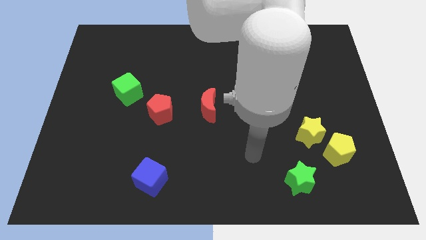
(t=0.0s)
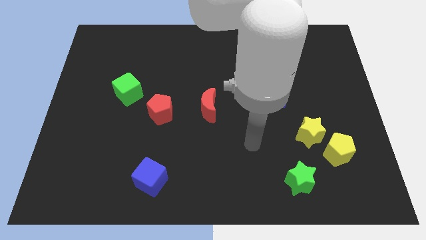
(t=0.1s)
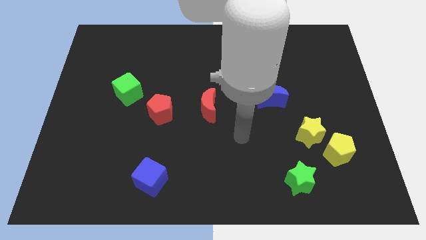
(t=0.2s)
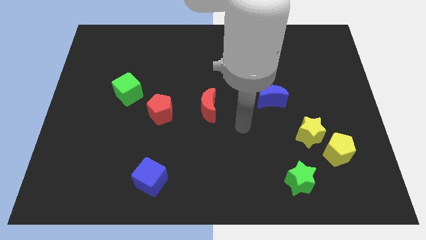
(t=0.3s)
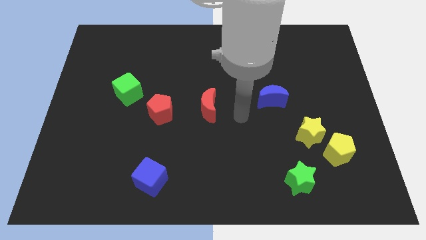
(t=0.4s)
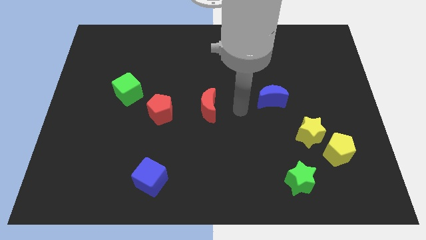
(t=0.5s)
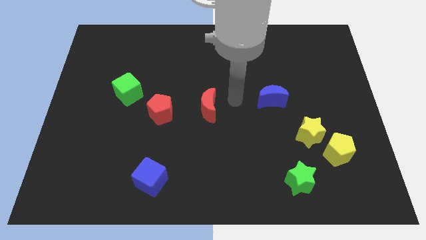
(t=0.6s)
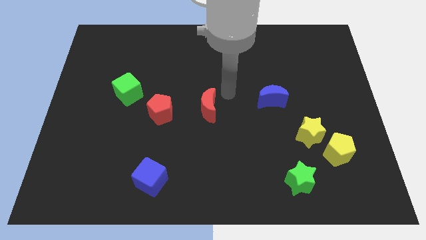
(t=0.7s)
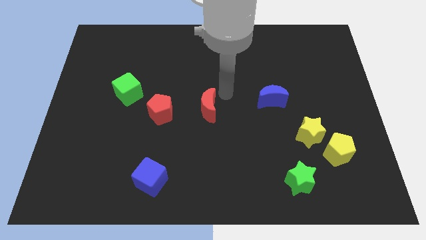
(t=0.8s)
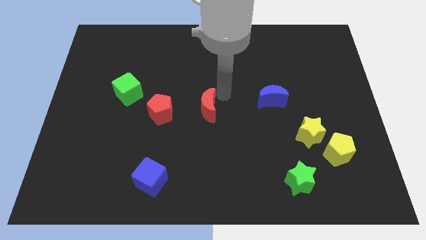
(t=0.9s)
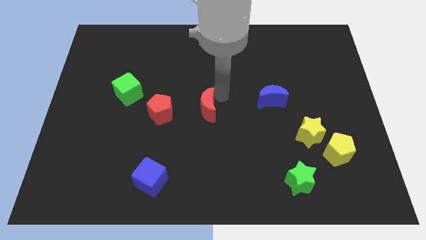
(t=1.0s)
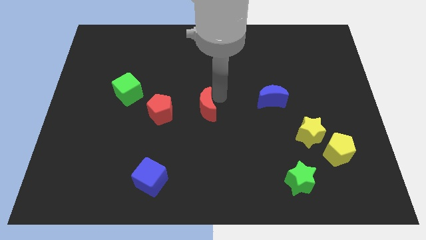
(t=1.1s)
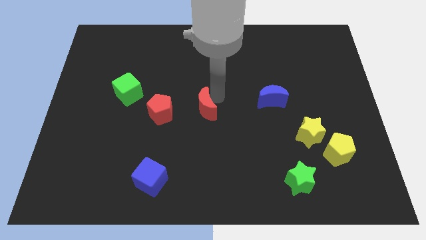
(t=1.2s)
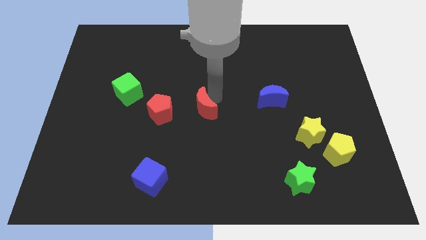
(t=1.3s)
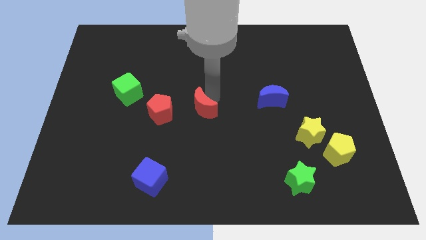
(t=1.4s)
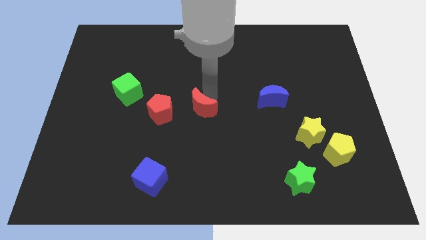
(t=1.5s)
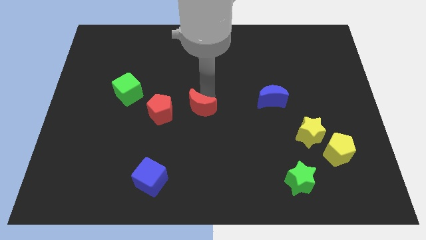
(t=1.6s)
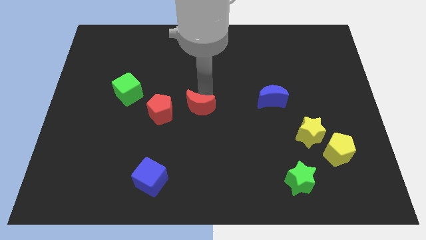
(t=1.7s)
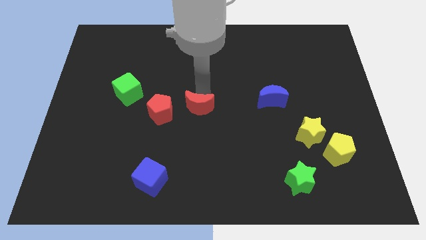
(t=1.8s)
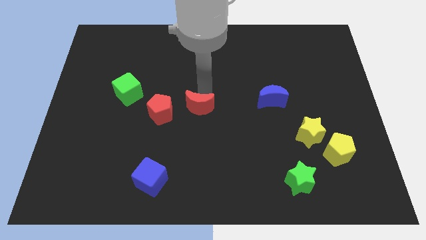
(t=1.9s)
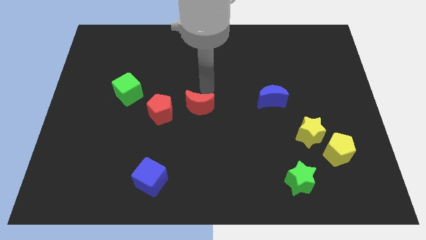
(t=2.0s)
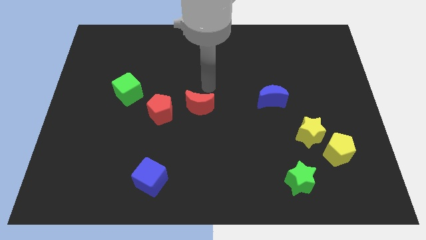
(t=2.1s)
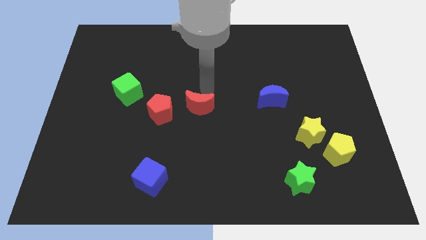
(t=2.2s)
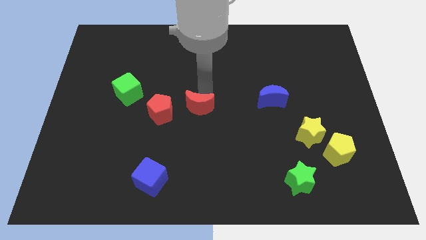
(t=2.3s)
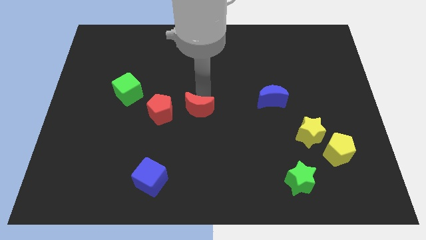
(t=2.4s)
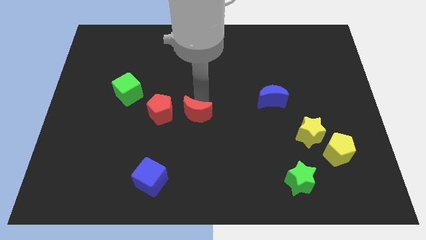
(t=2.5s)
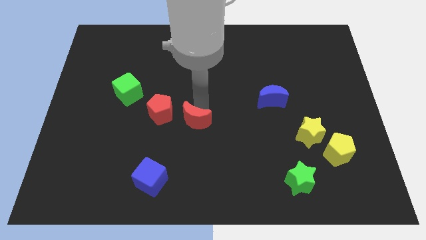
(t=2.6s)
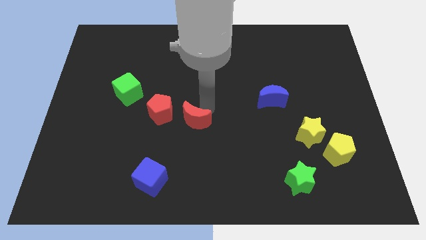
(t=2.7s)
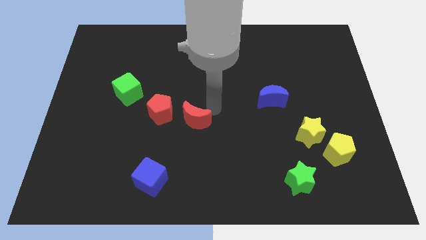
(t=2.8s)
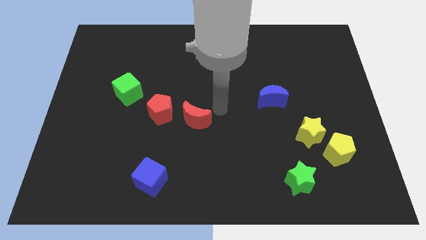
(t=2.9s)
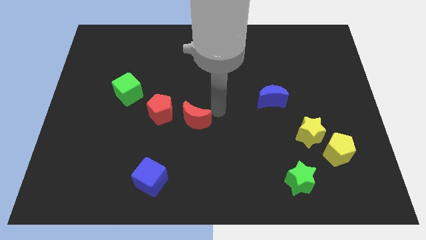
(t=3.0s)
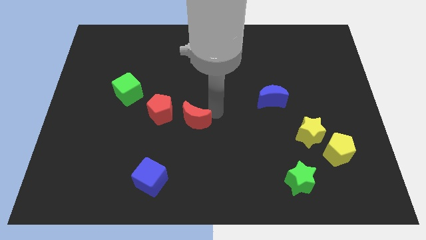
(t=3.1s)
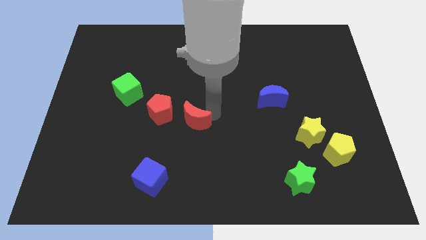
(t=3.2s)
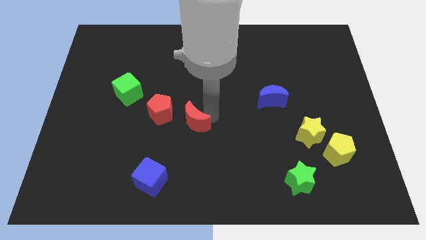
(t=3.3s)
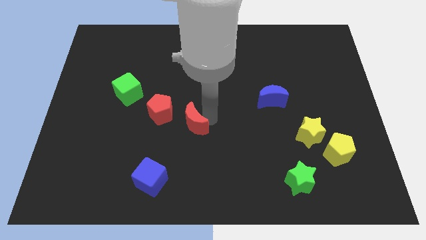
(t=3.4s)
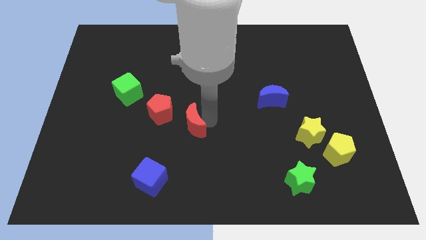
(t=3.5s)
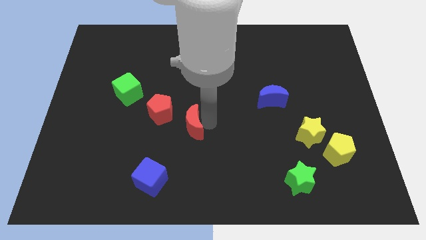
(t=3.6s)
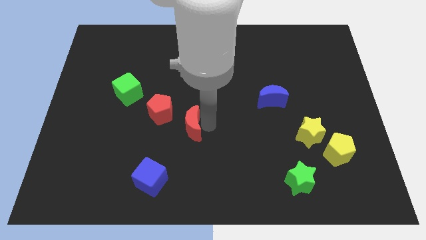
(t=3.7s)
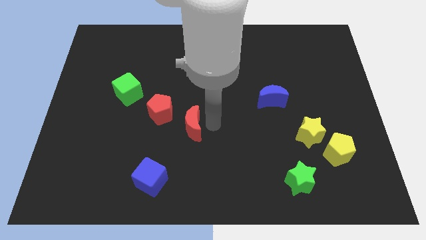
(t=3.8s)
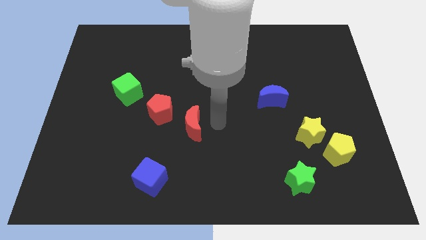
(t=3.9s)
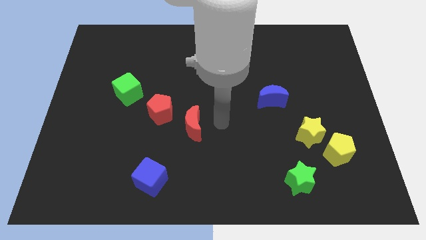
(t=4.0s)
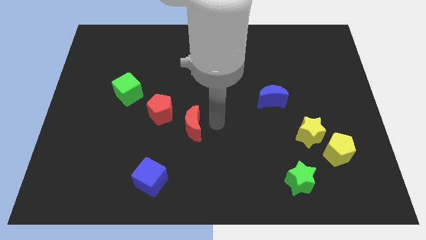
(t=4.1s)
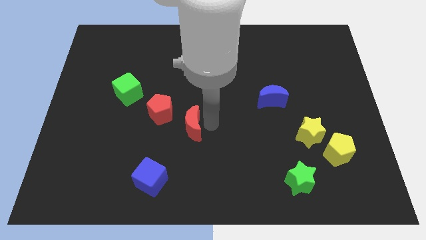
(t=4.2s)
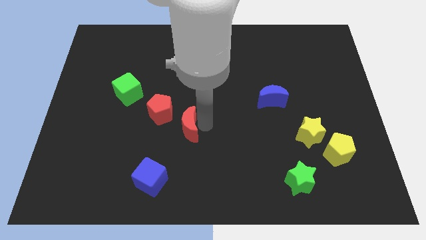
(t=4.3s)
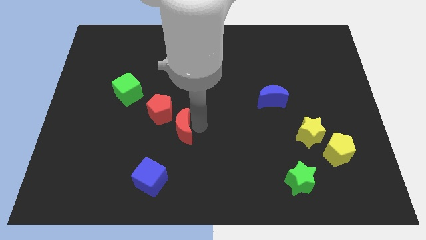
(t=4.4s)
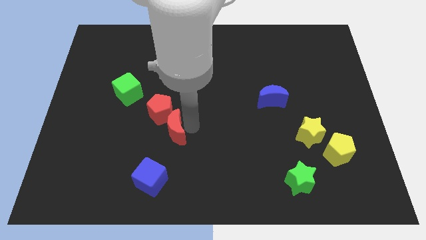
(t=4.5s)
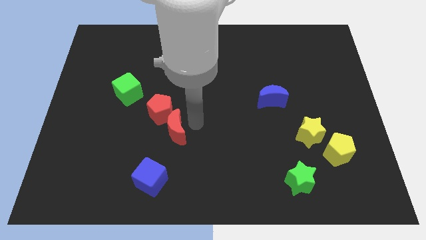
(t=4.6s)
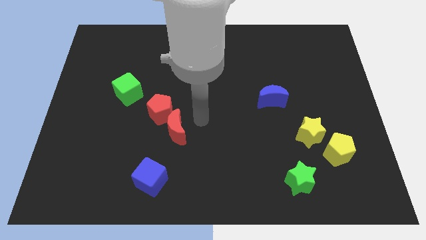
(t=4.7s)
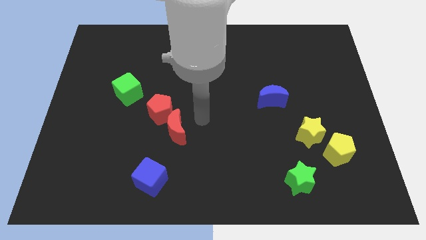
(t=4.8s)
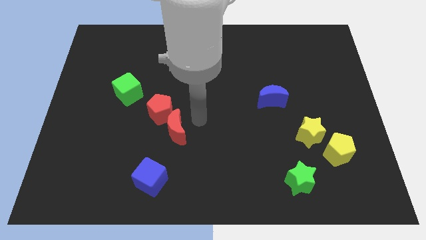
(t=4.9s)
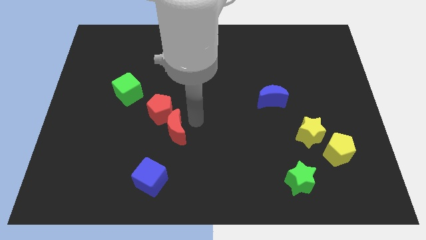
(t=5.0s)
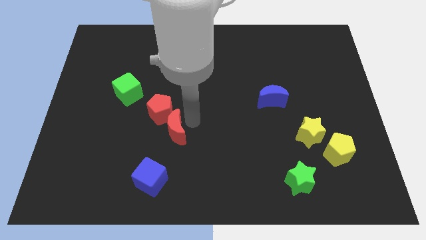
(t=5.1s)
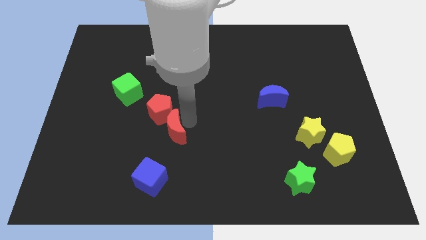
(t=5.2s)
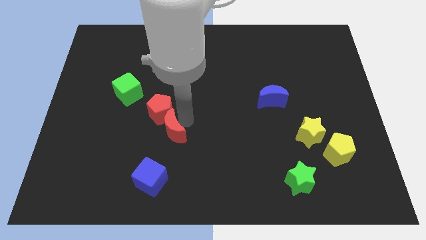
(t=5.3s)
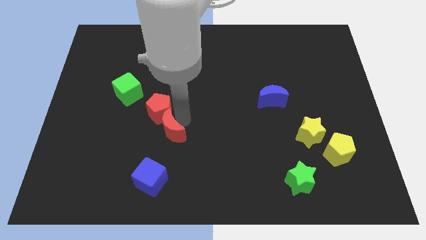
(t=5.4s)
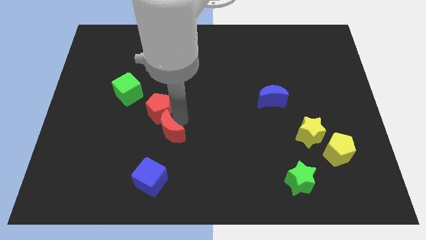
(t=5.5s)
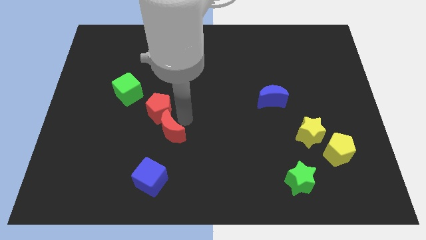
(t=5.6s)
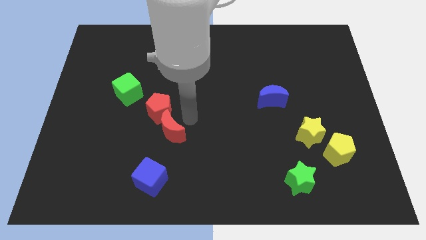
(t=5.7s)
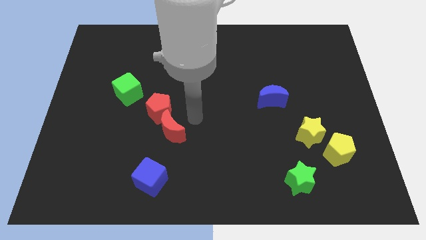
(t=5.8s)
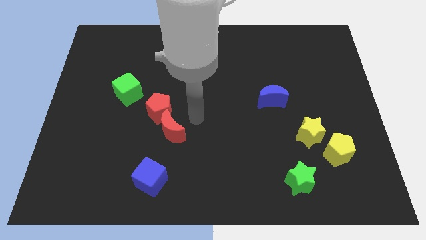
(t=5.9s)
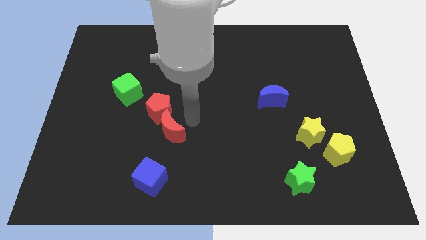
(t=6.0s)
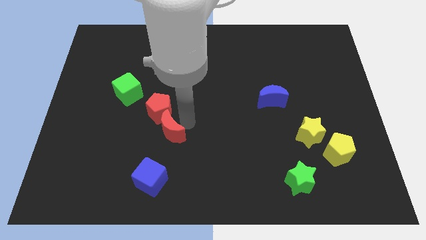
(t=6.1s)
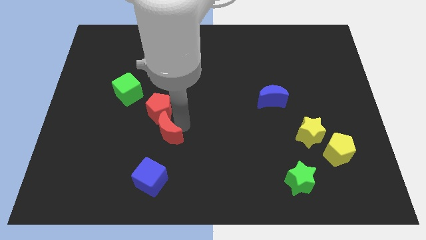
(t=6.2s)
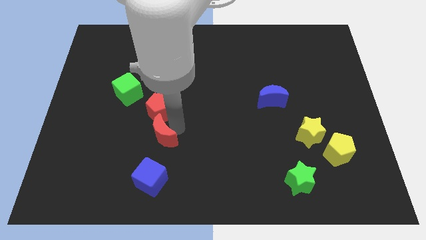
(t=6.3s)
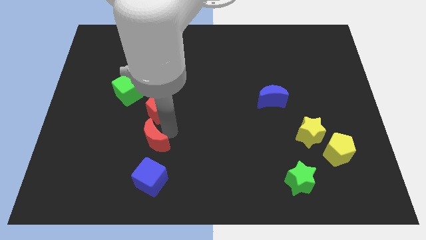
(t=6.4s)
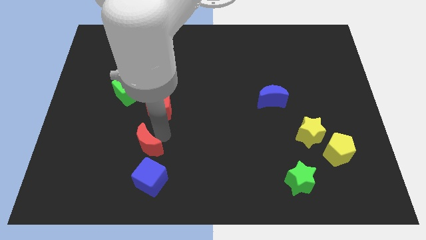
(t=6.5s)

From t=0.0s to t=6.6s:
move the red moon to the top left side of the blue cube

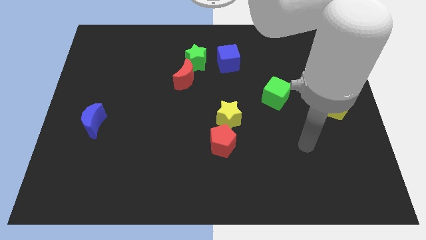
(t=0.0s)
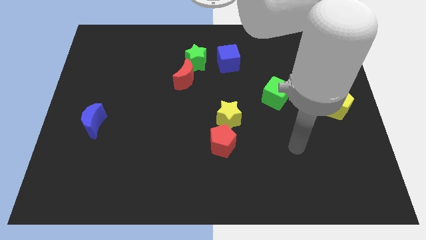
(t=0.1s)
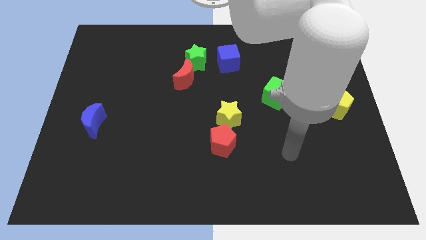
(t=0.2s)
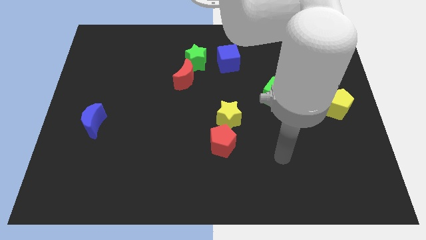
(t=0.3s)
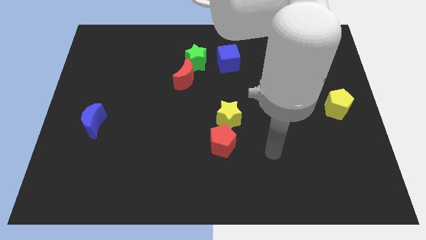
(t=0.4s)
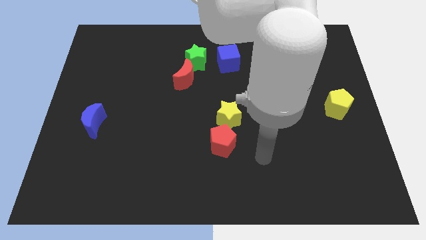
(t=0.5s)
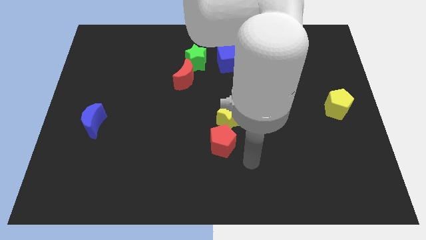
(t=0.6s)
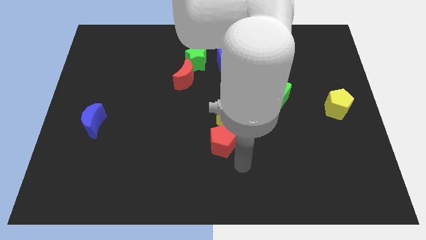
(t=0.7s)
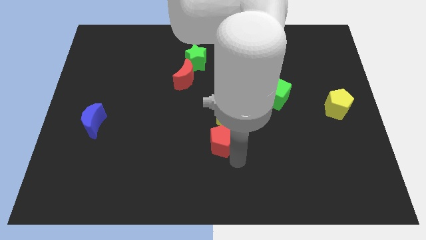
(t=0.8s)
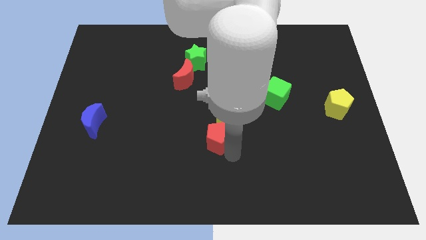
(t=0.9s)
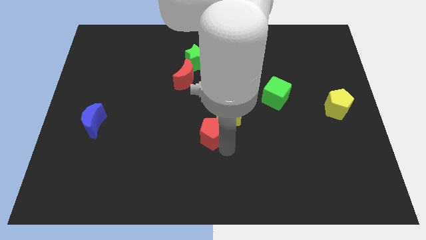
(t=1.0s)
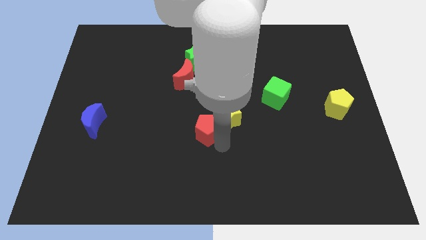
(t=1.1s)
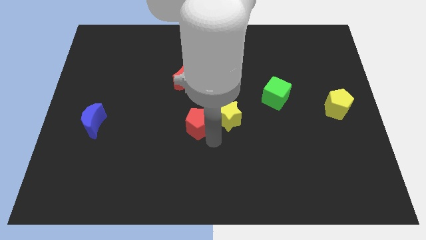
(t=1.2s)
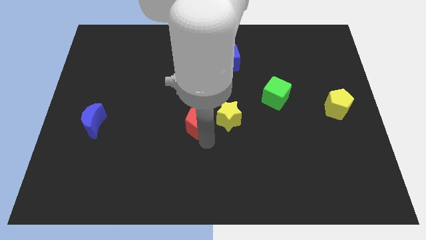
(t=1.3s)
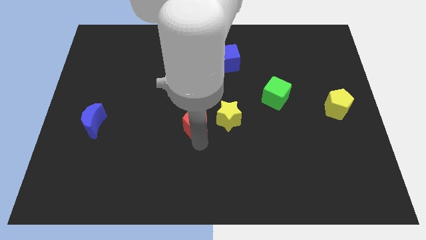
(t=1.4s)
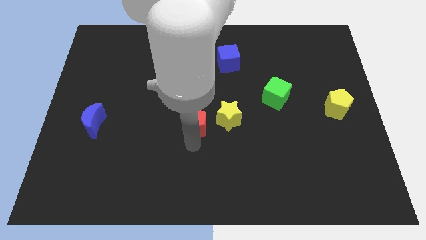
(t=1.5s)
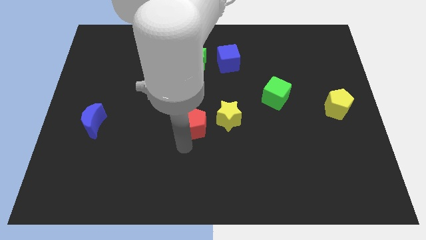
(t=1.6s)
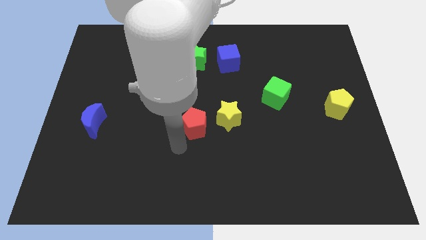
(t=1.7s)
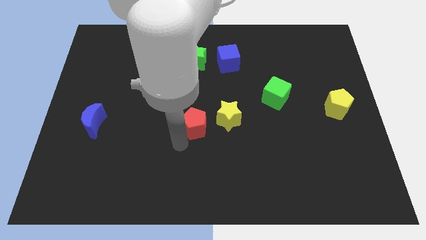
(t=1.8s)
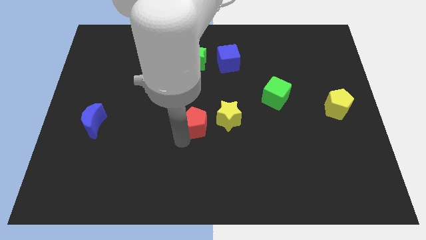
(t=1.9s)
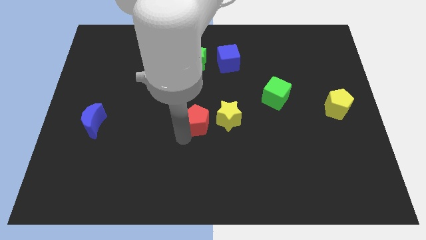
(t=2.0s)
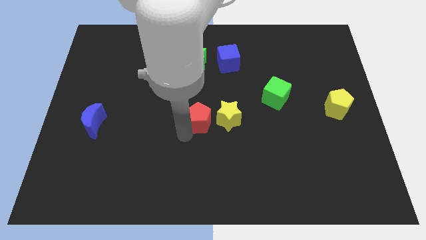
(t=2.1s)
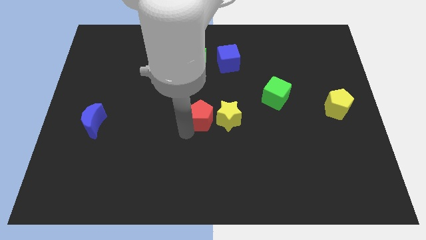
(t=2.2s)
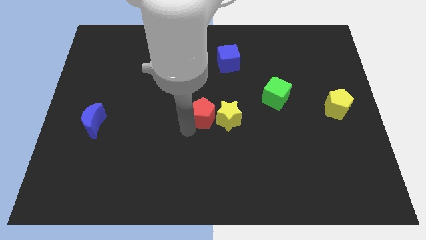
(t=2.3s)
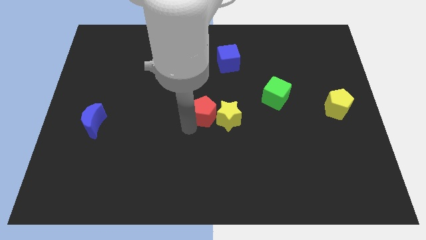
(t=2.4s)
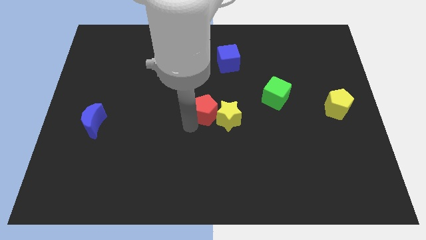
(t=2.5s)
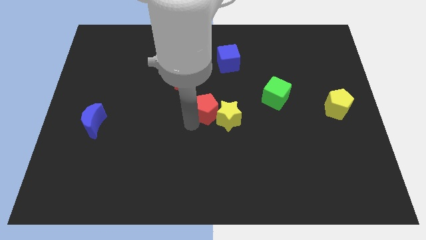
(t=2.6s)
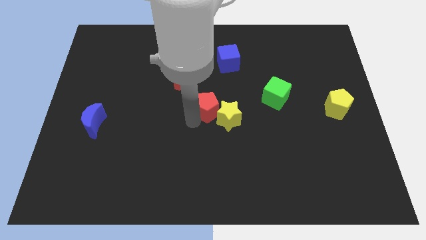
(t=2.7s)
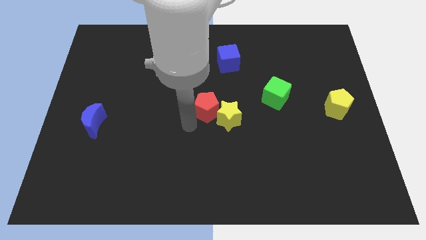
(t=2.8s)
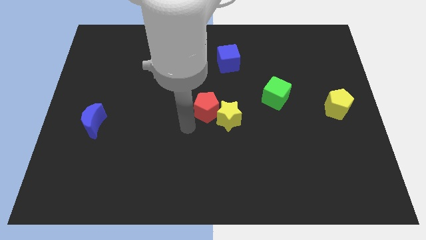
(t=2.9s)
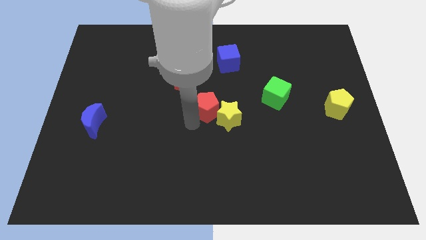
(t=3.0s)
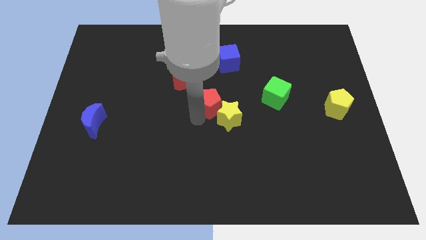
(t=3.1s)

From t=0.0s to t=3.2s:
slide the red pentagon to the top side of the yellow star
